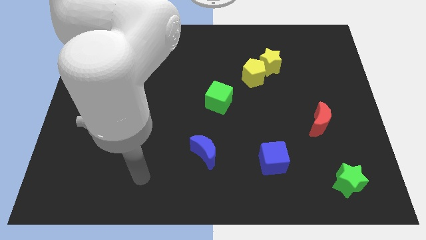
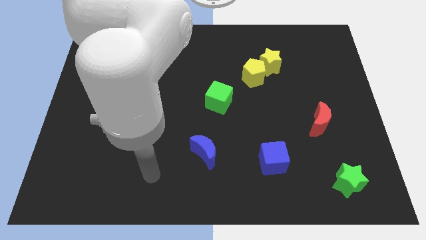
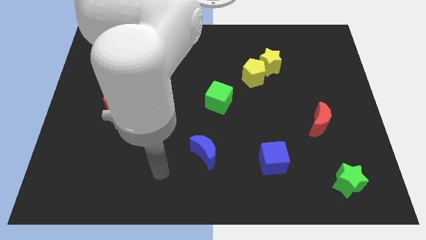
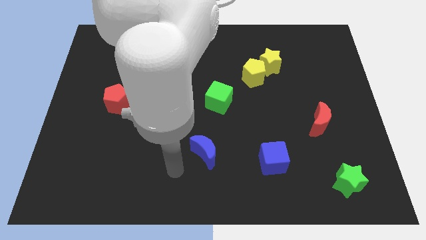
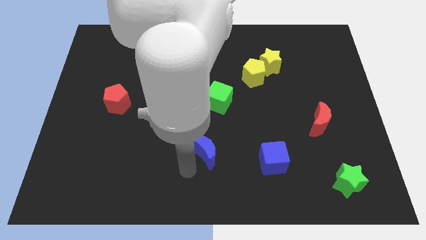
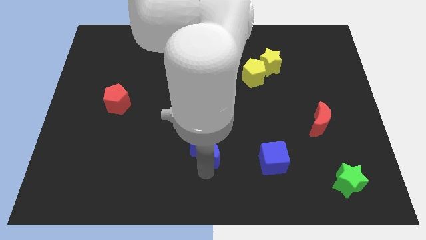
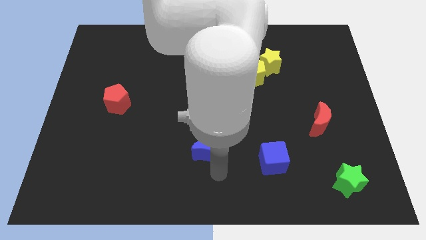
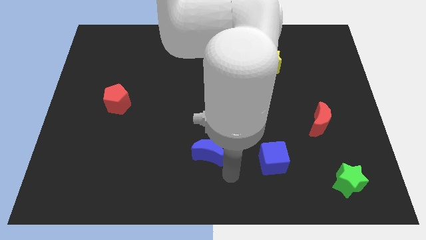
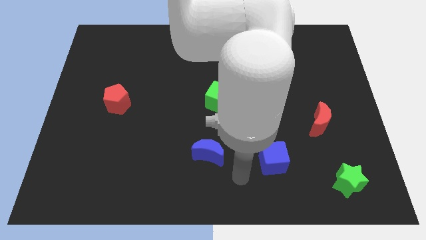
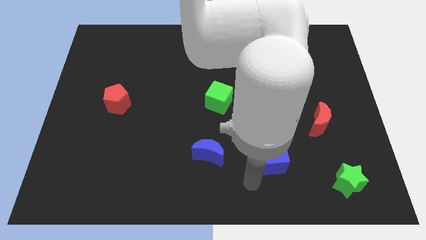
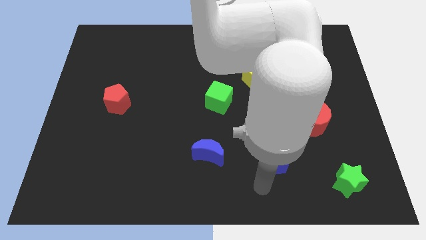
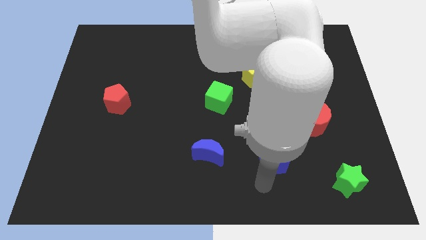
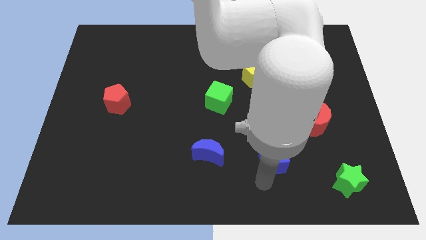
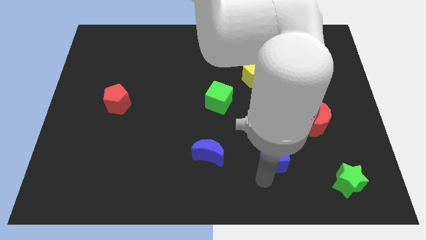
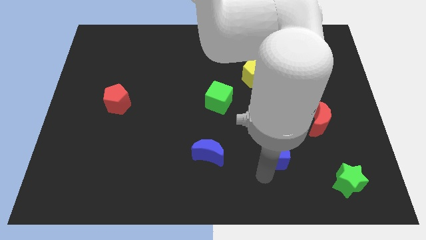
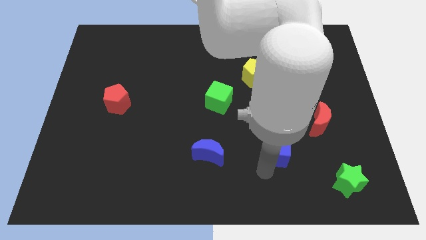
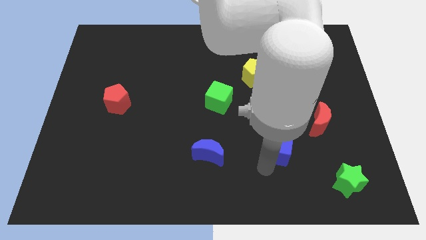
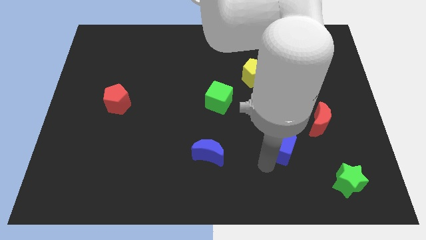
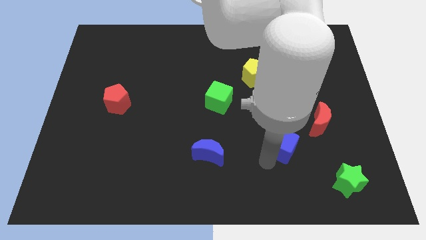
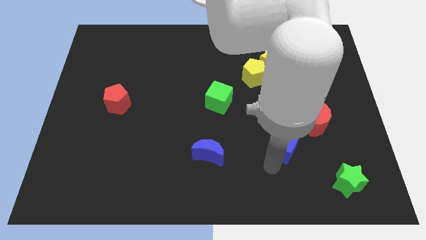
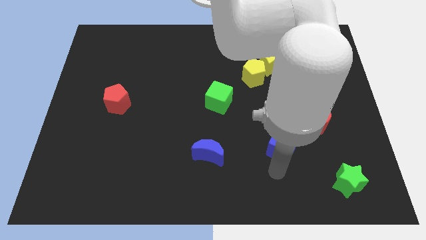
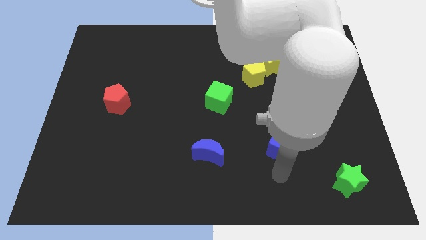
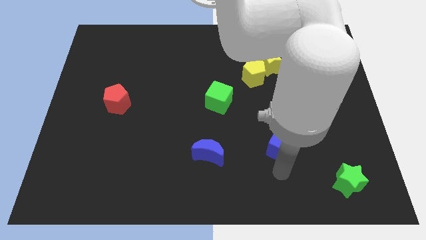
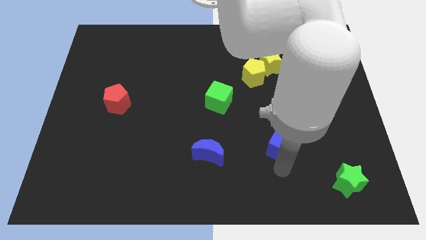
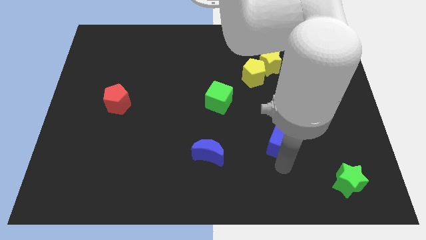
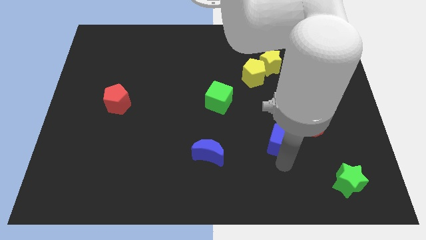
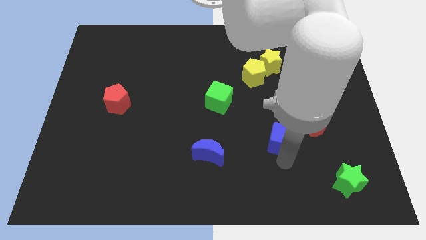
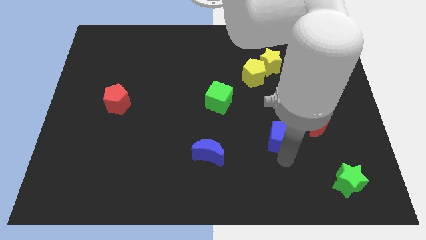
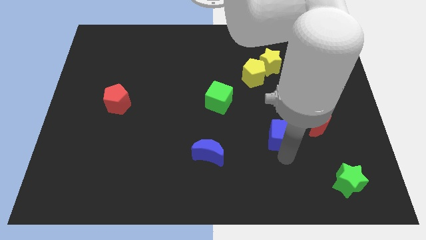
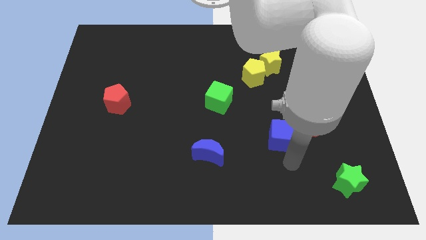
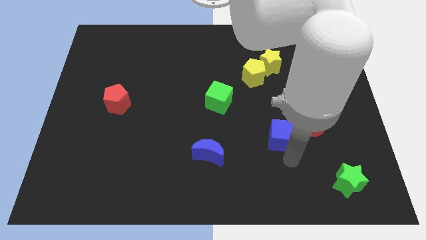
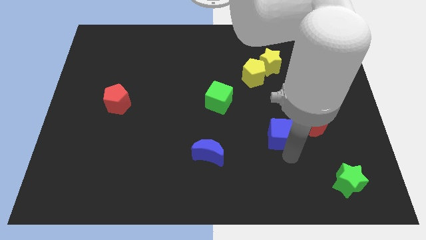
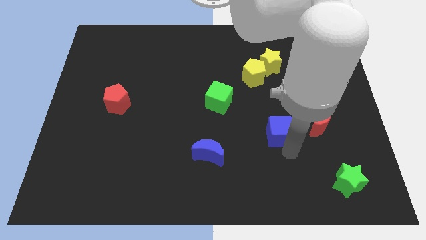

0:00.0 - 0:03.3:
push the blue cube a little up

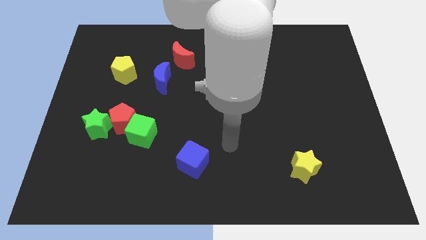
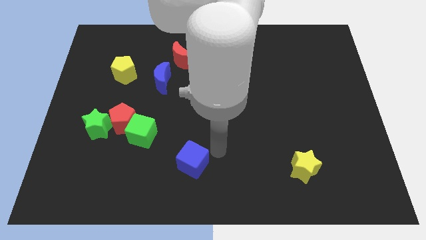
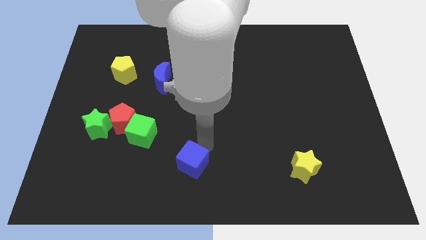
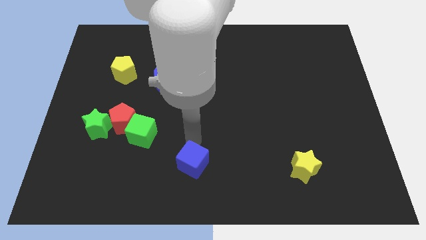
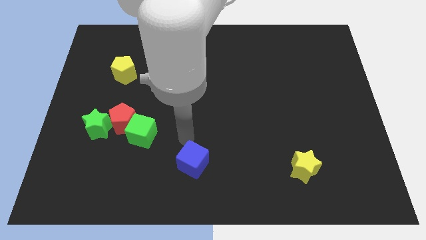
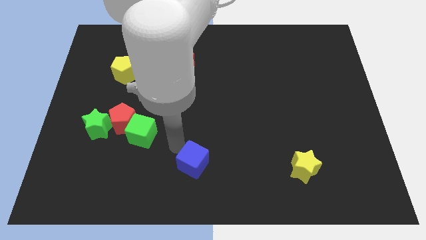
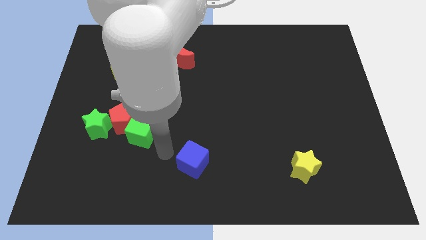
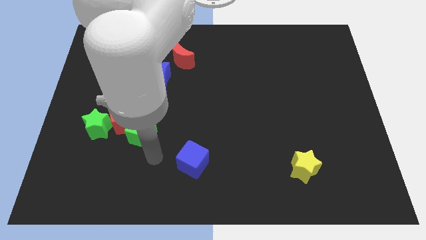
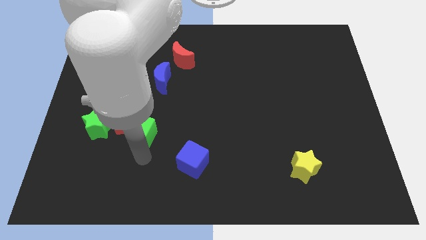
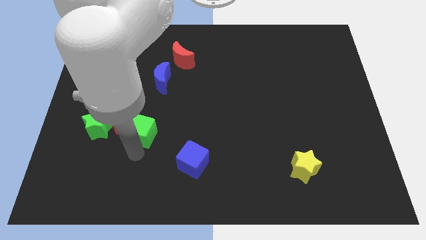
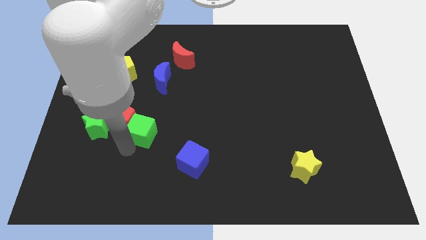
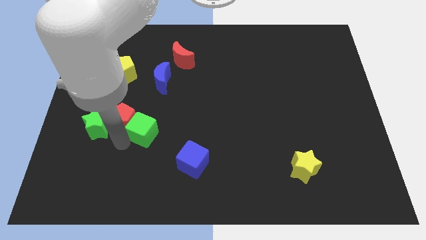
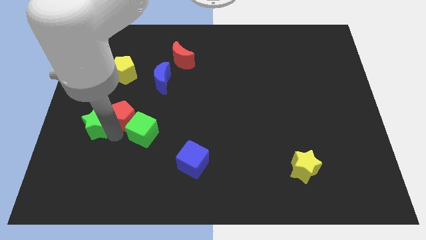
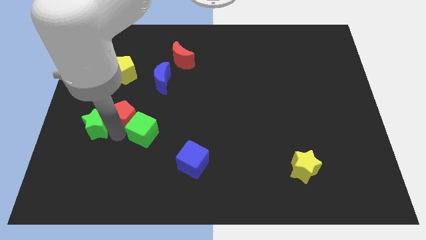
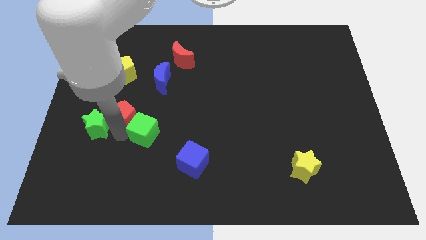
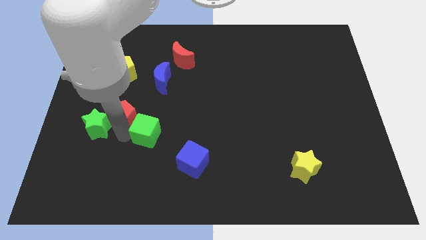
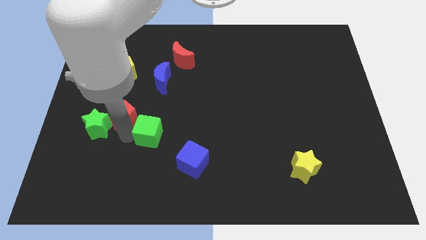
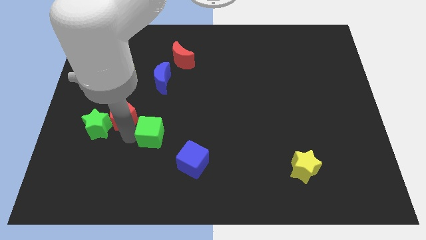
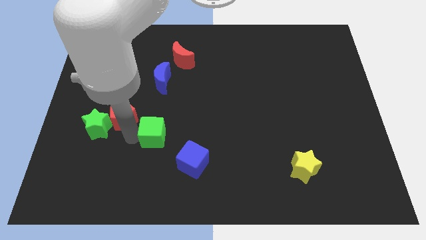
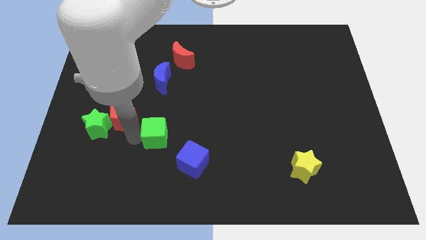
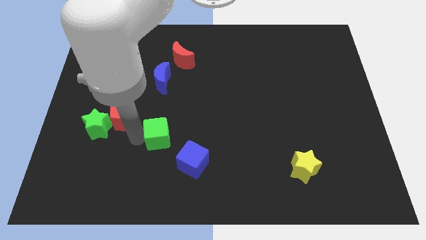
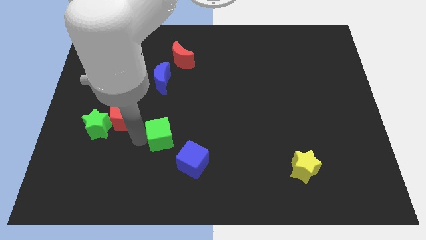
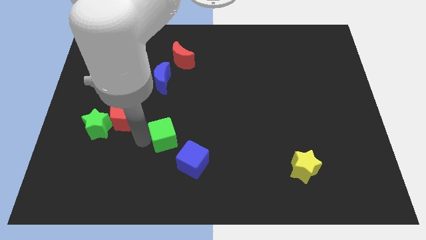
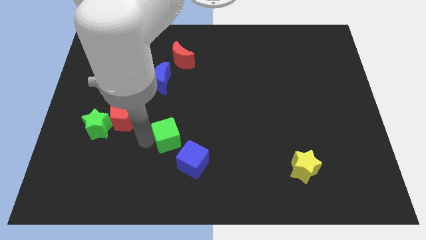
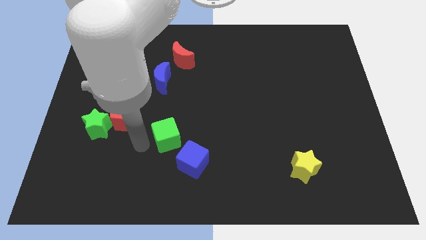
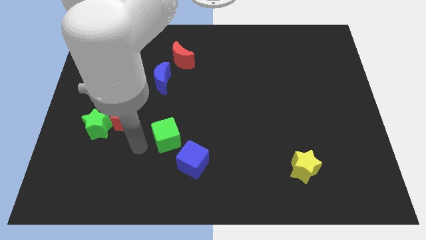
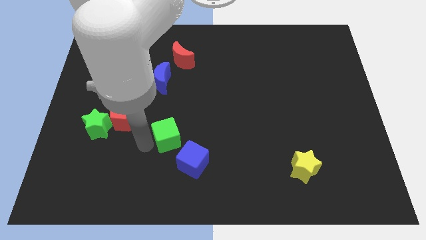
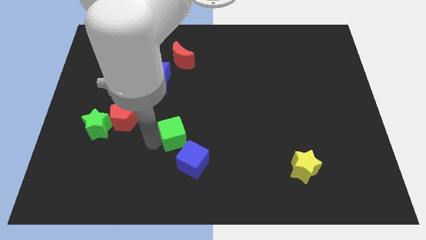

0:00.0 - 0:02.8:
slightly slide the green cube to the right

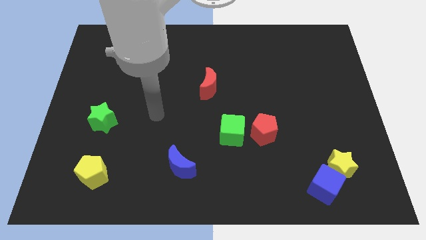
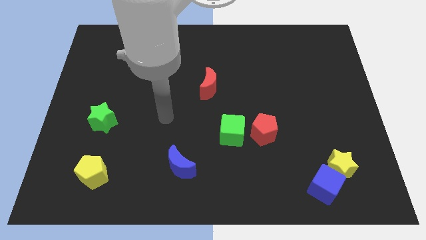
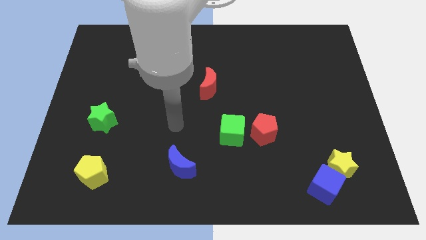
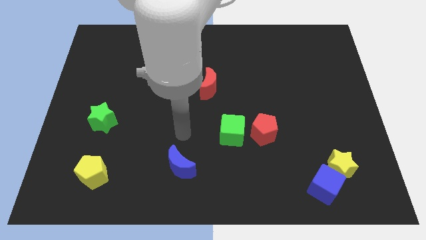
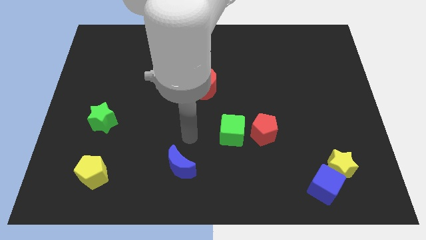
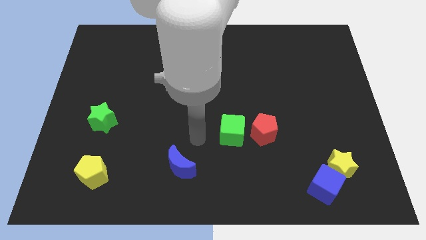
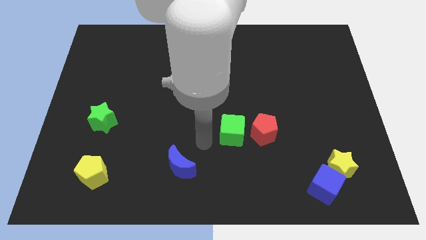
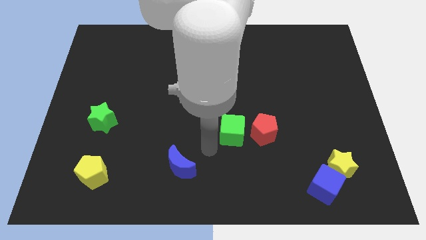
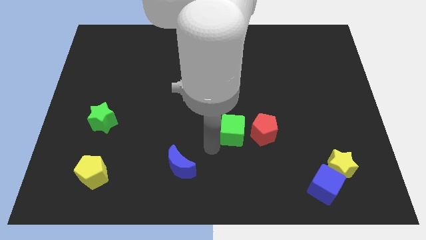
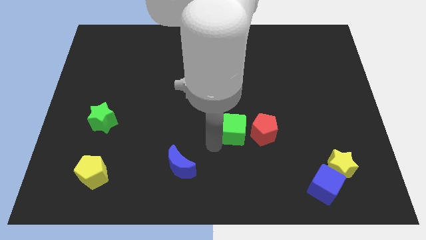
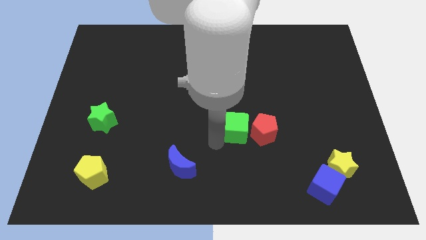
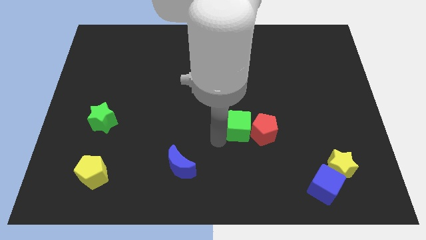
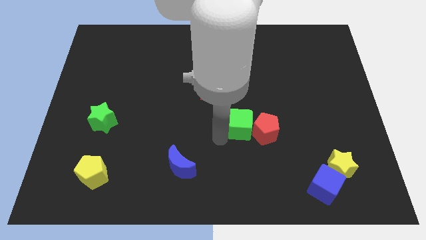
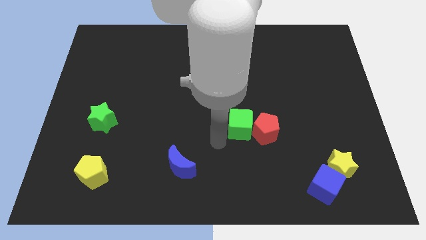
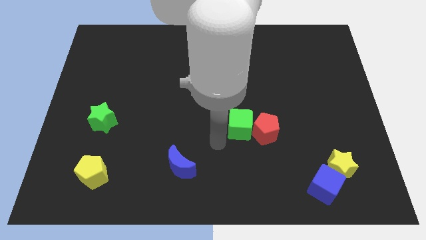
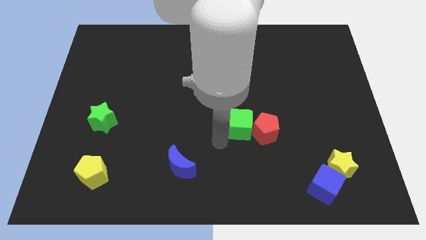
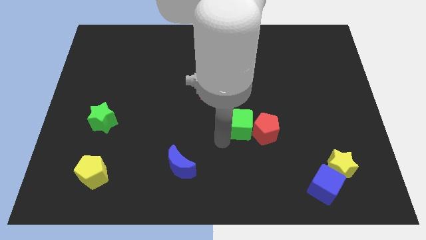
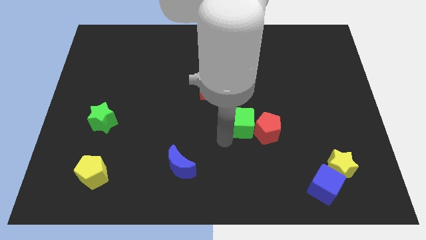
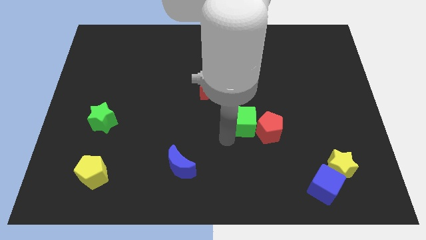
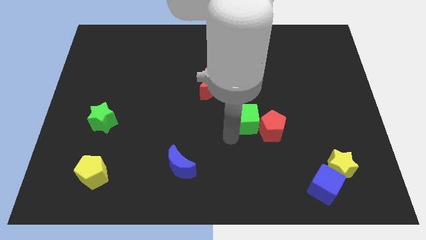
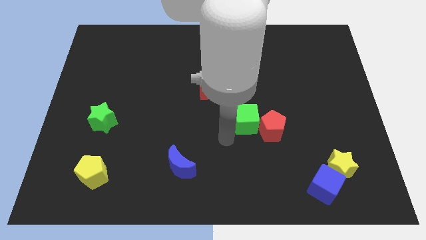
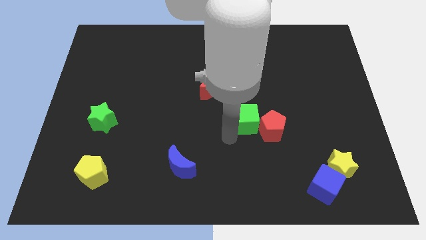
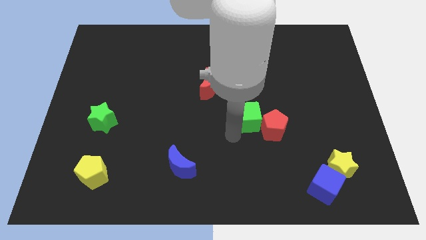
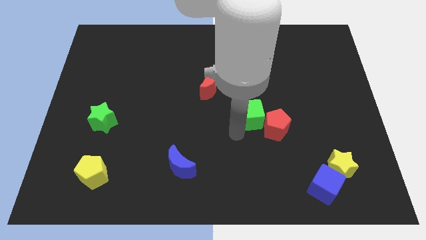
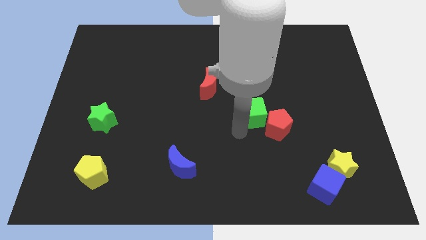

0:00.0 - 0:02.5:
slide the green cube a little bit up and right diagonally
